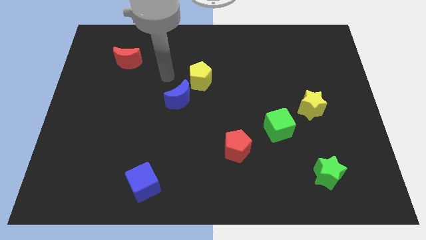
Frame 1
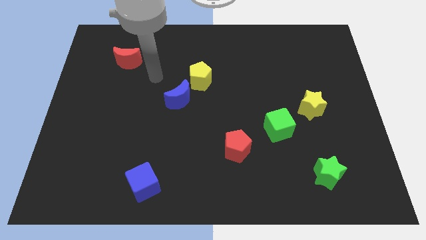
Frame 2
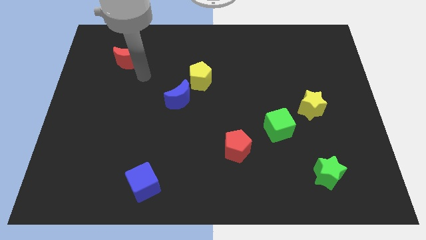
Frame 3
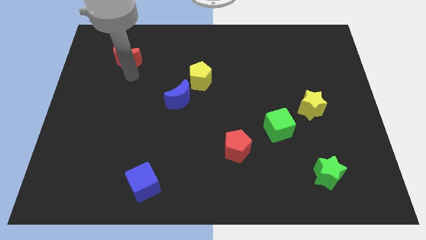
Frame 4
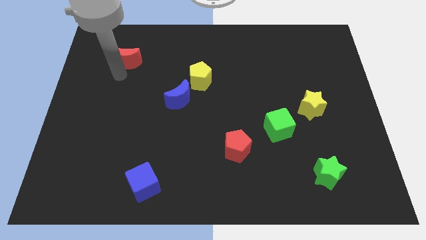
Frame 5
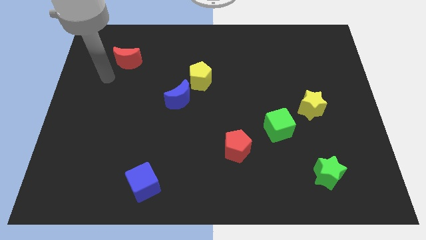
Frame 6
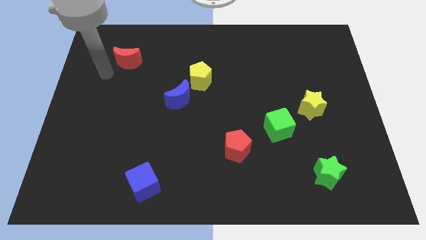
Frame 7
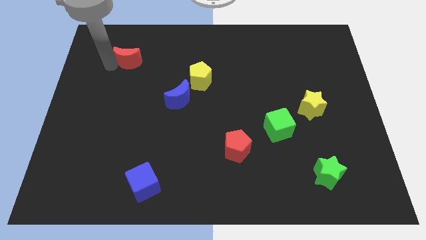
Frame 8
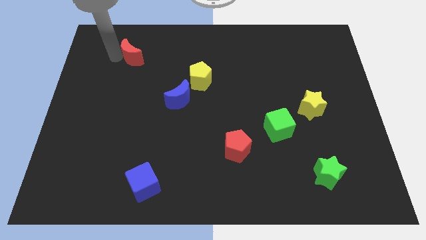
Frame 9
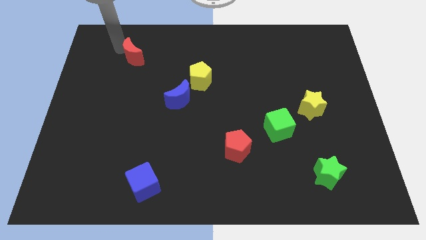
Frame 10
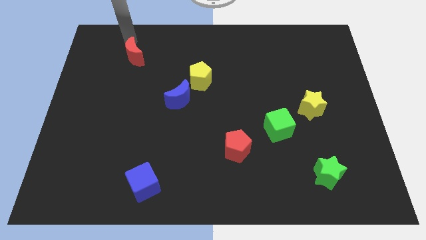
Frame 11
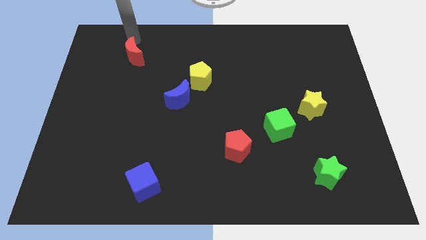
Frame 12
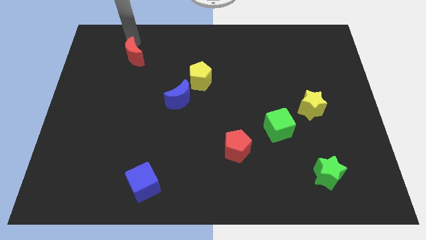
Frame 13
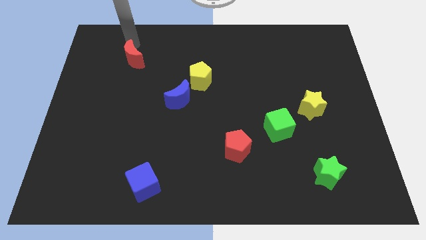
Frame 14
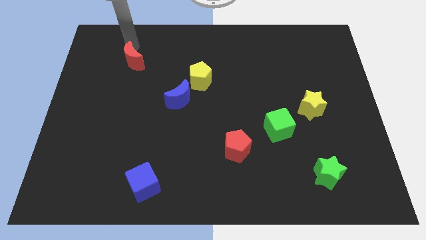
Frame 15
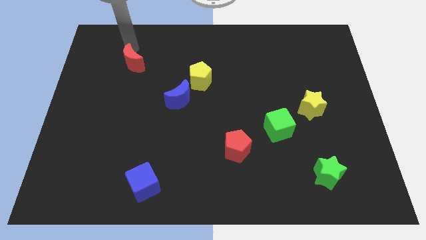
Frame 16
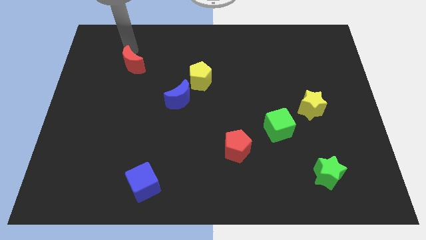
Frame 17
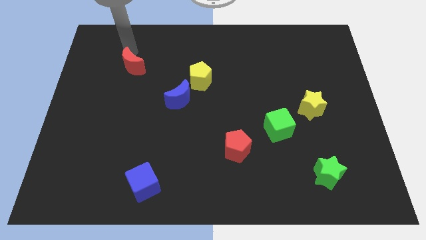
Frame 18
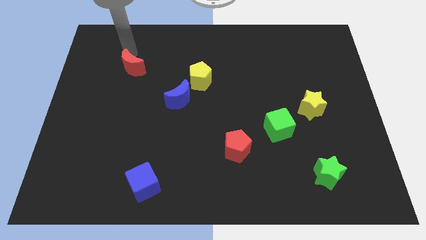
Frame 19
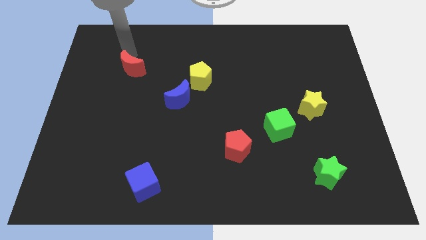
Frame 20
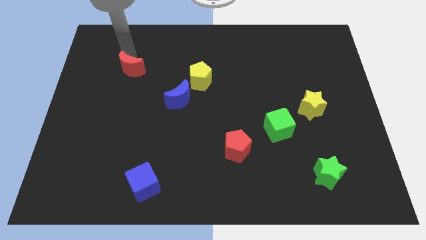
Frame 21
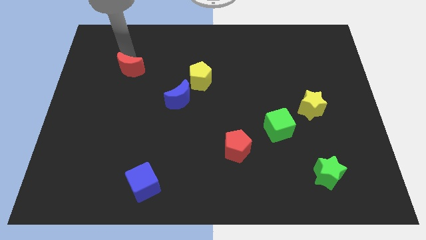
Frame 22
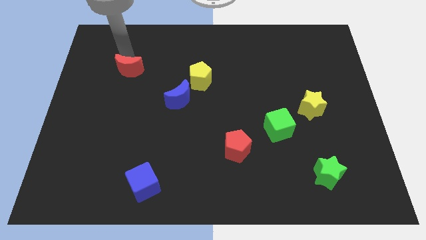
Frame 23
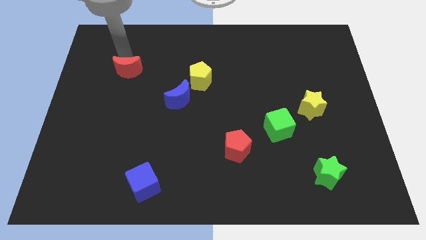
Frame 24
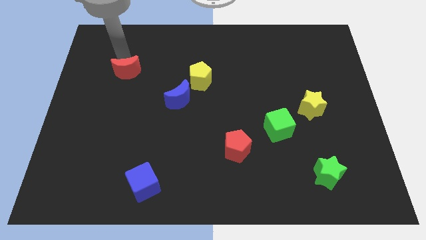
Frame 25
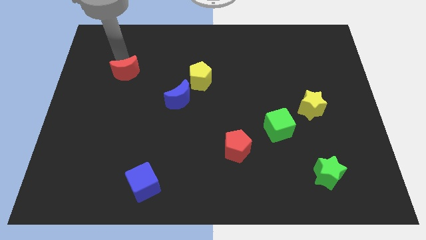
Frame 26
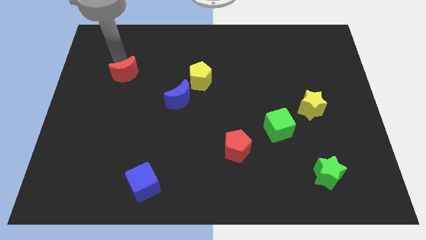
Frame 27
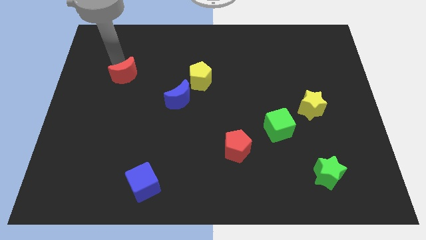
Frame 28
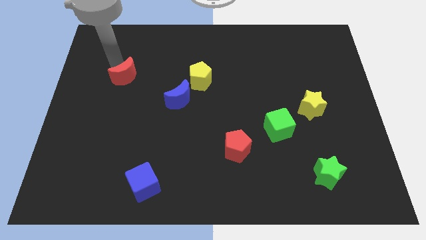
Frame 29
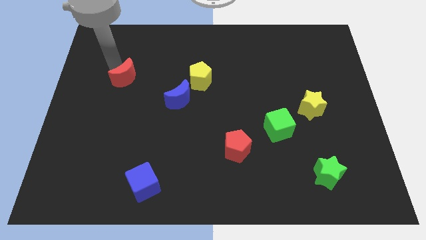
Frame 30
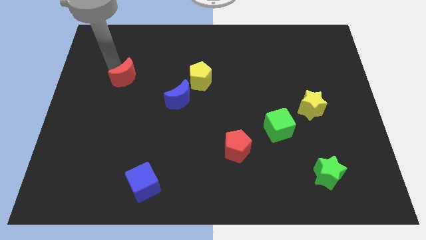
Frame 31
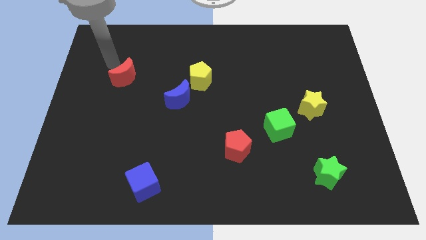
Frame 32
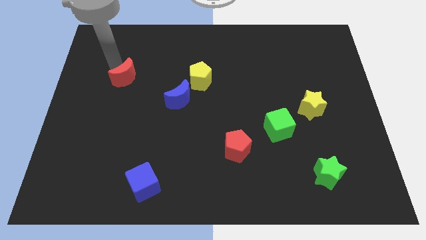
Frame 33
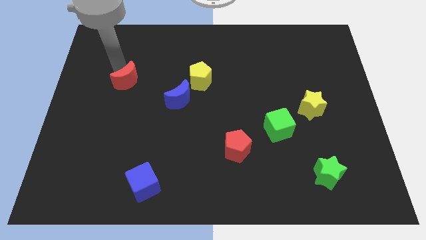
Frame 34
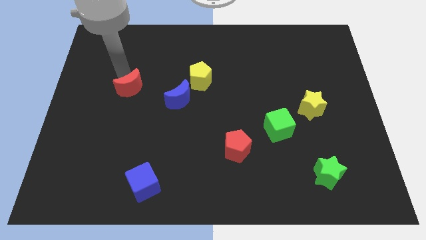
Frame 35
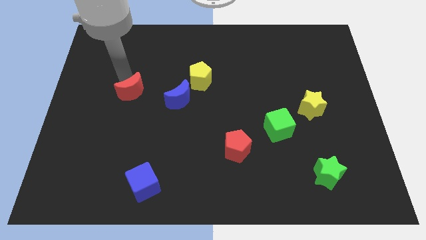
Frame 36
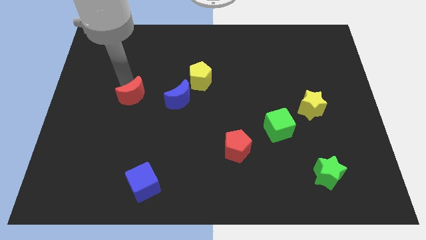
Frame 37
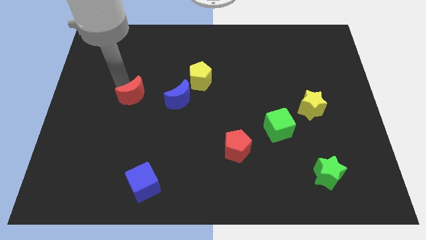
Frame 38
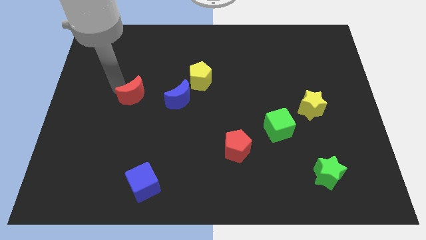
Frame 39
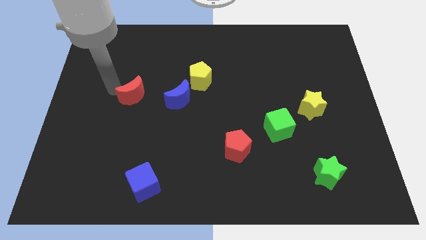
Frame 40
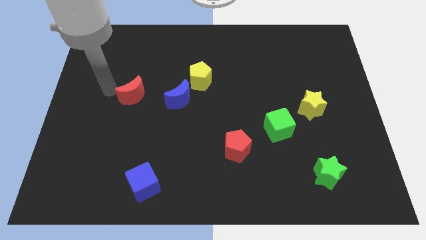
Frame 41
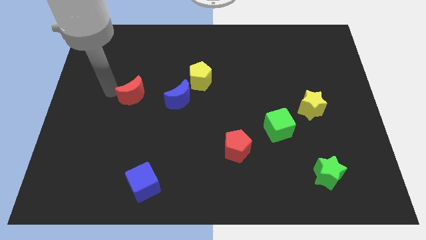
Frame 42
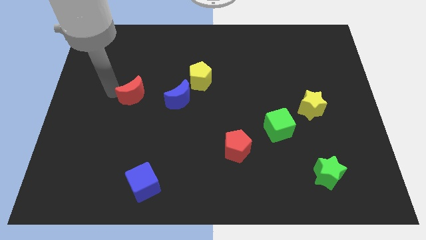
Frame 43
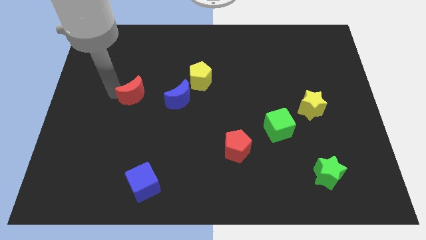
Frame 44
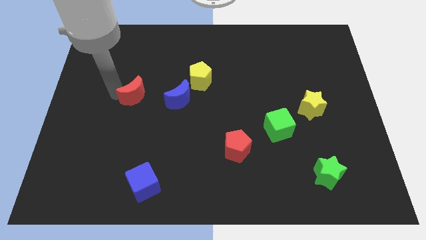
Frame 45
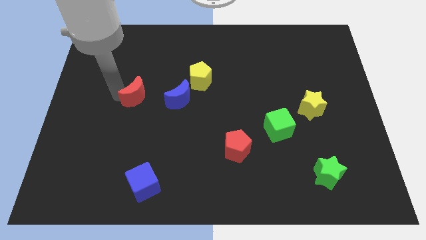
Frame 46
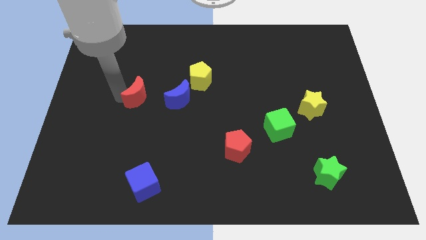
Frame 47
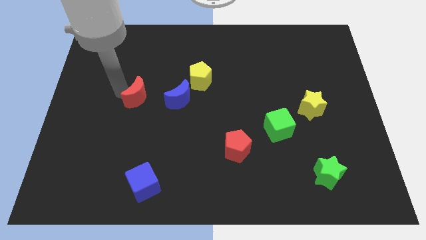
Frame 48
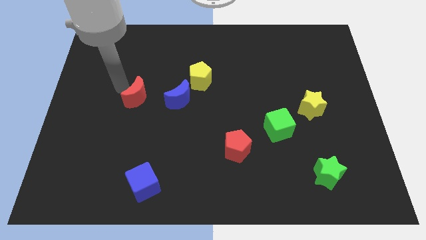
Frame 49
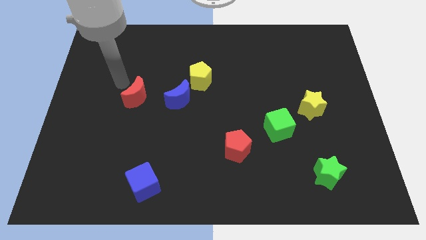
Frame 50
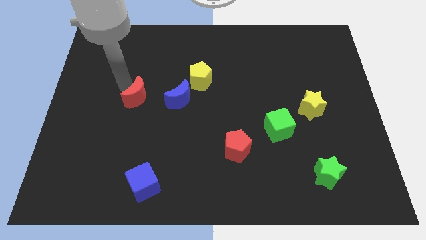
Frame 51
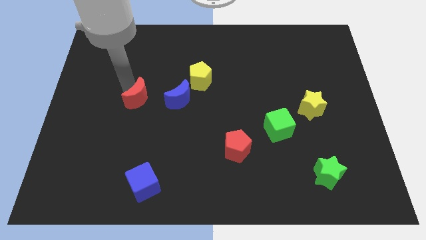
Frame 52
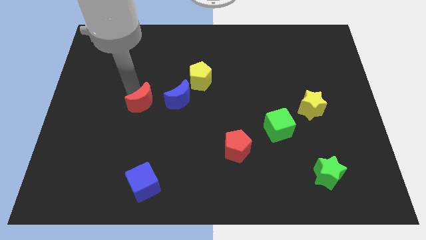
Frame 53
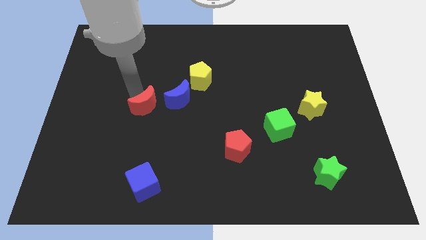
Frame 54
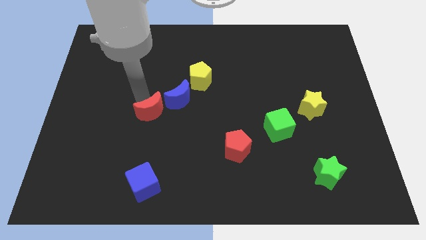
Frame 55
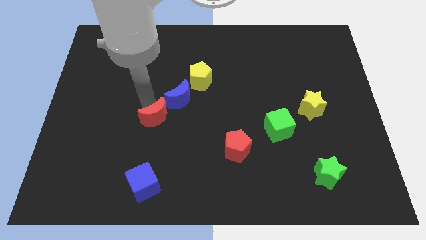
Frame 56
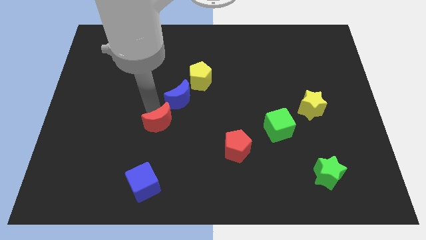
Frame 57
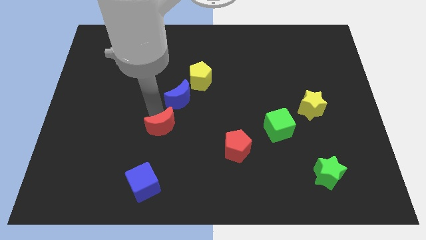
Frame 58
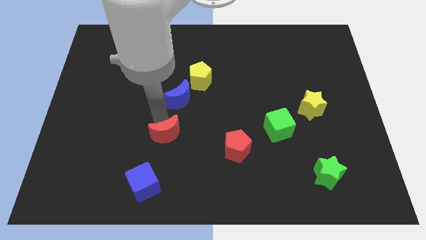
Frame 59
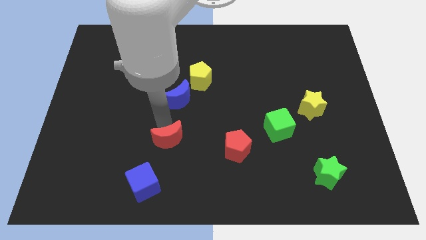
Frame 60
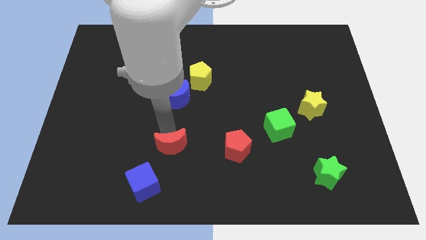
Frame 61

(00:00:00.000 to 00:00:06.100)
slide the red moon diagonally up and to the right of the blue cube
